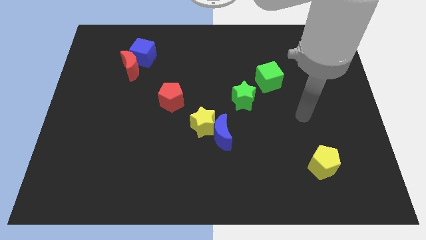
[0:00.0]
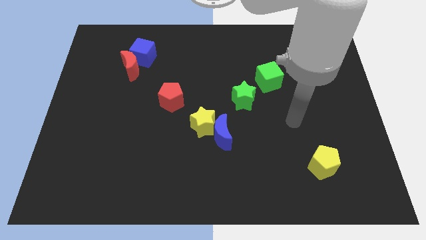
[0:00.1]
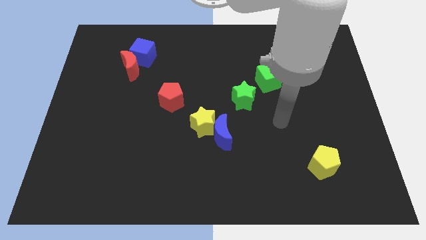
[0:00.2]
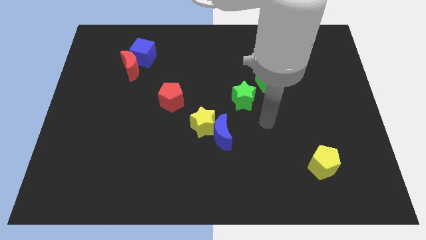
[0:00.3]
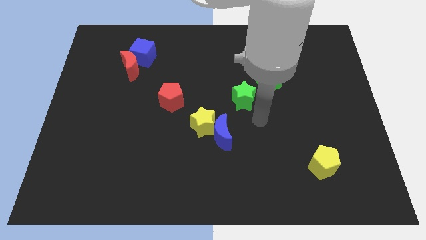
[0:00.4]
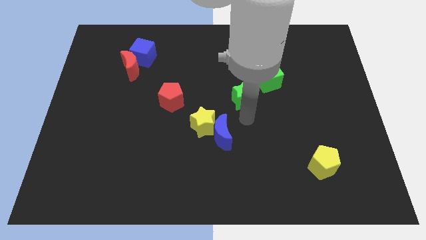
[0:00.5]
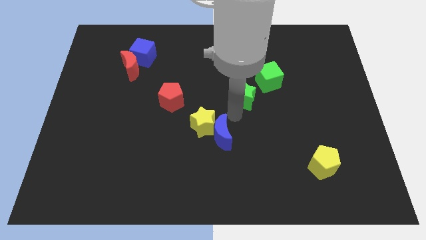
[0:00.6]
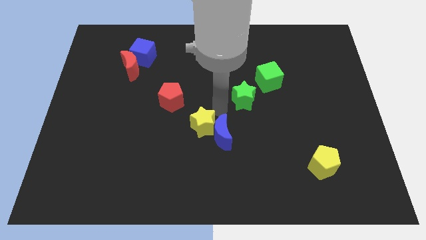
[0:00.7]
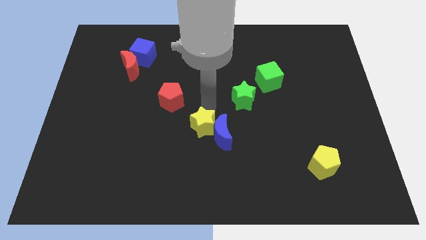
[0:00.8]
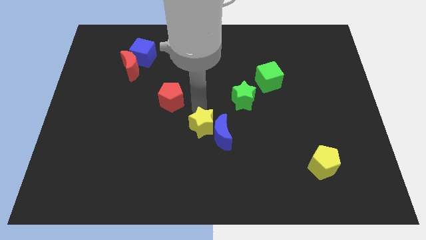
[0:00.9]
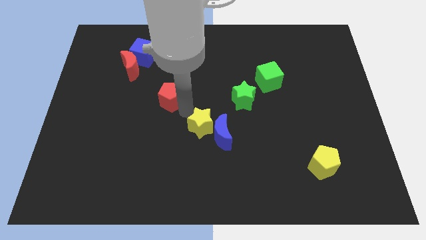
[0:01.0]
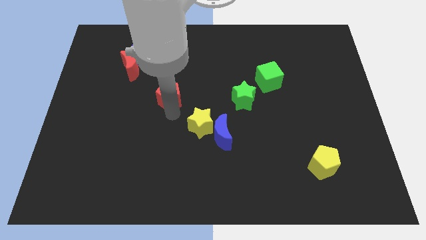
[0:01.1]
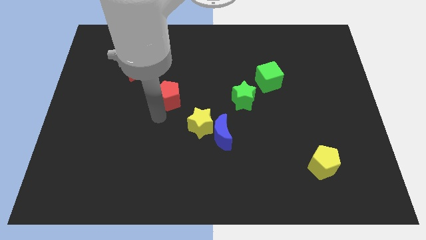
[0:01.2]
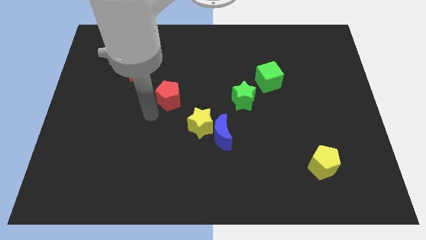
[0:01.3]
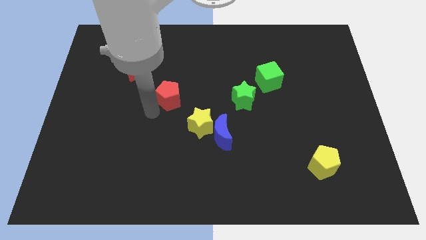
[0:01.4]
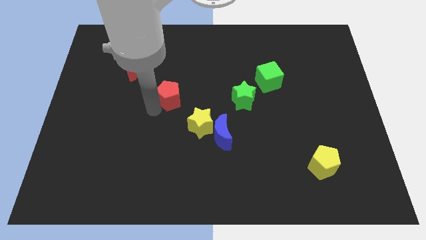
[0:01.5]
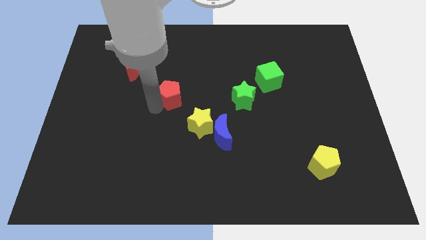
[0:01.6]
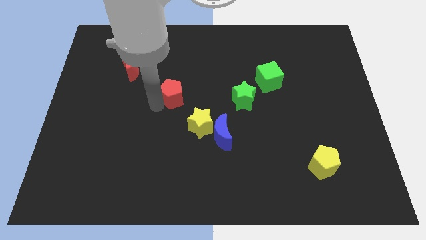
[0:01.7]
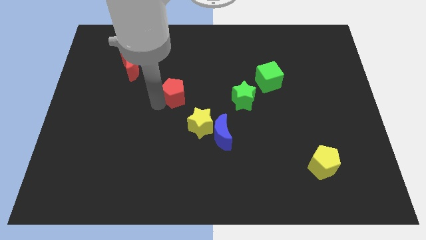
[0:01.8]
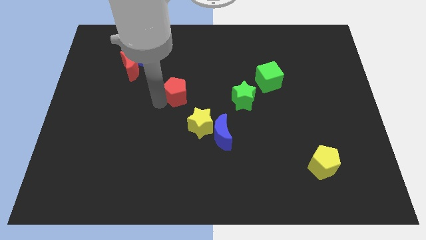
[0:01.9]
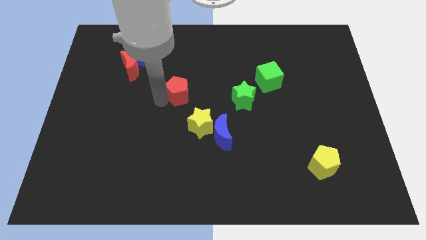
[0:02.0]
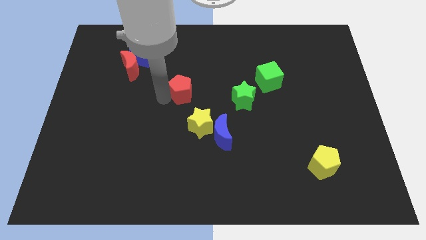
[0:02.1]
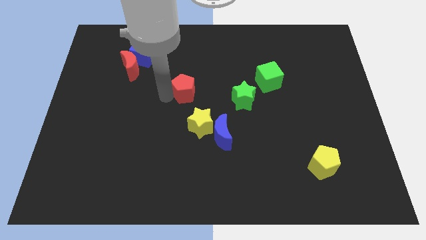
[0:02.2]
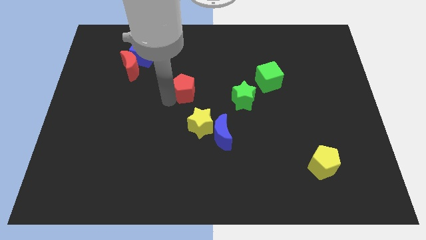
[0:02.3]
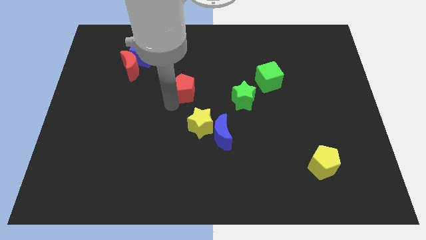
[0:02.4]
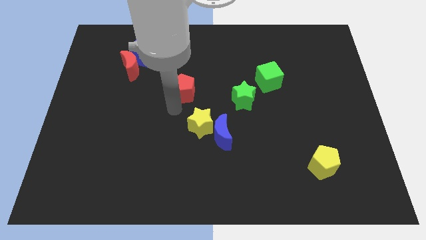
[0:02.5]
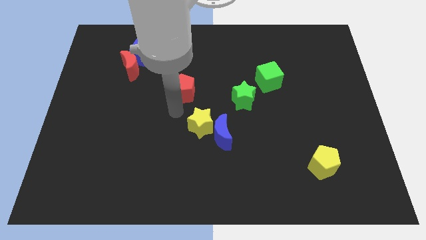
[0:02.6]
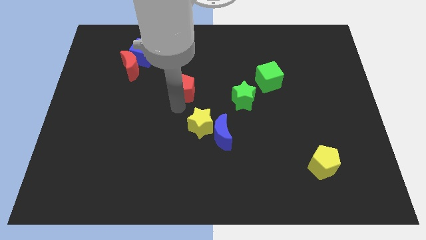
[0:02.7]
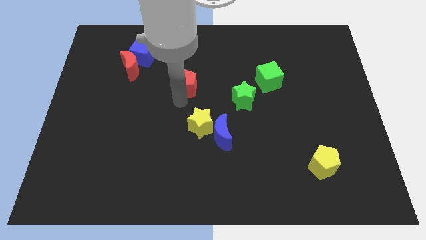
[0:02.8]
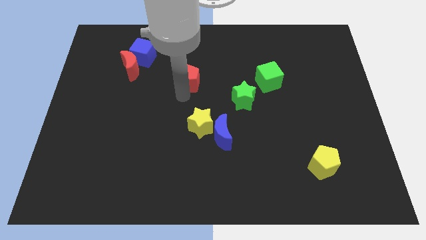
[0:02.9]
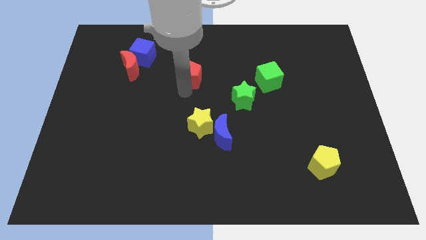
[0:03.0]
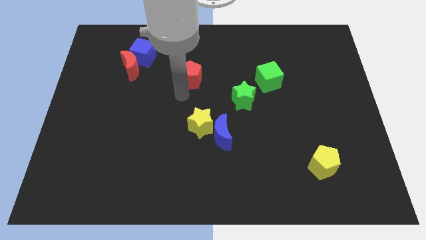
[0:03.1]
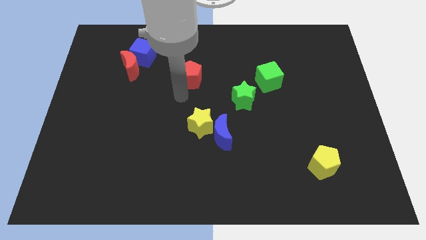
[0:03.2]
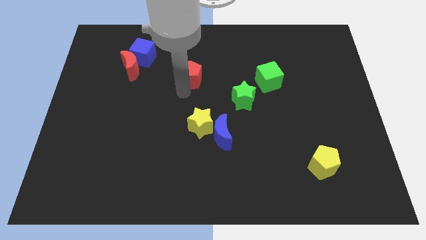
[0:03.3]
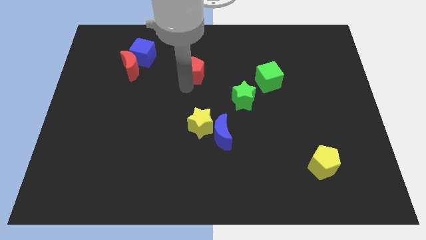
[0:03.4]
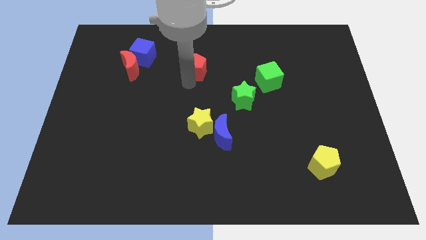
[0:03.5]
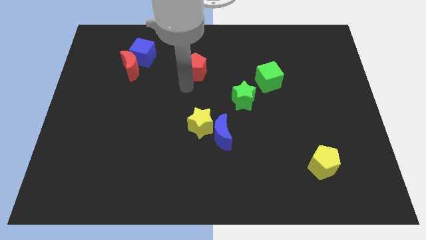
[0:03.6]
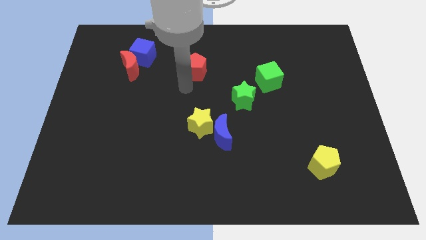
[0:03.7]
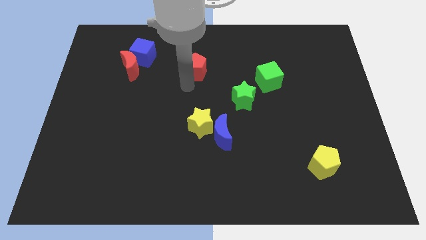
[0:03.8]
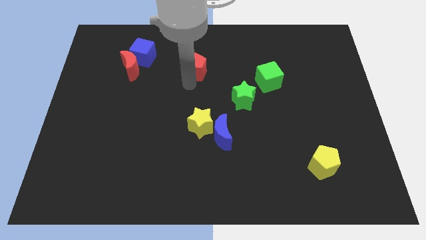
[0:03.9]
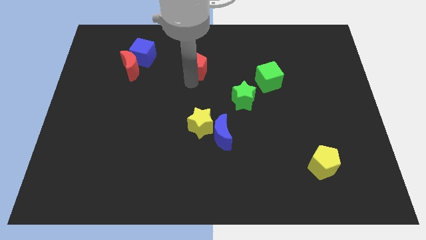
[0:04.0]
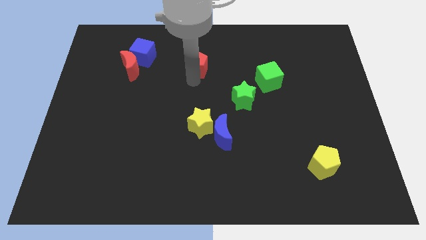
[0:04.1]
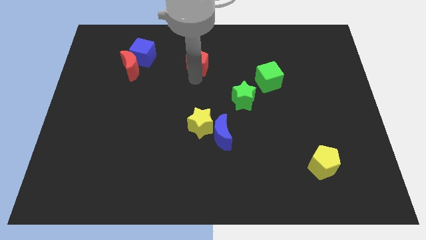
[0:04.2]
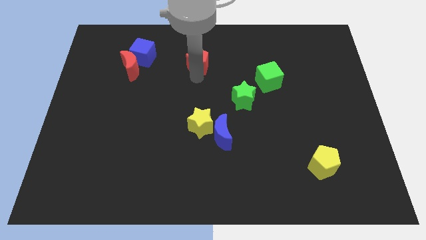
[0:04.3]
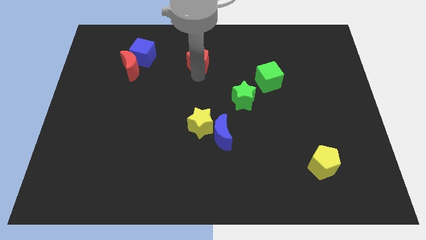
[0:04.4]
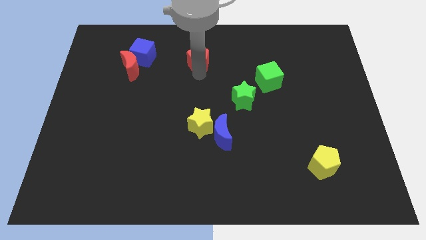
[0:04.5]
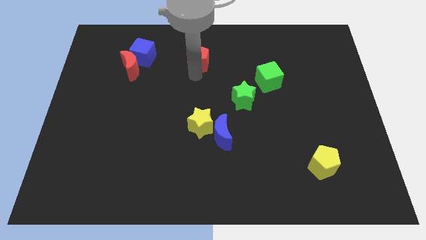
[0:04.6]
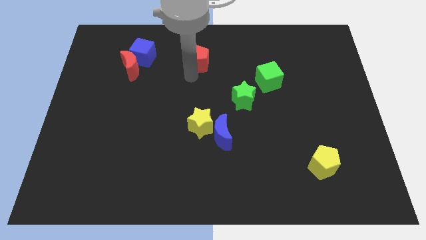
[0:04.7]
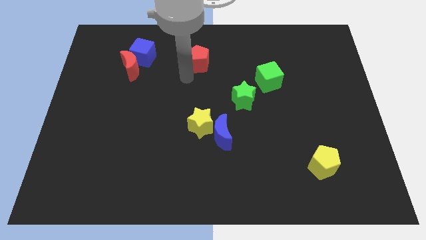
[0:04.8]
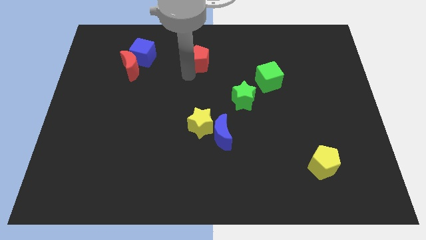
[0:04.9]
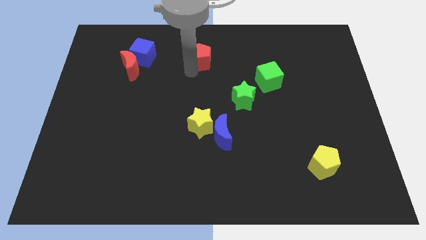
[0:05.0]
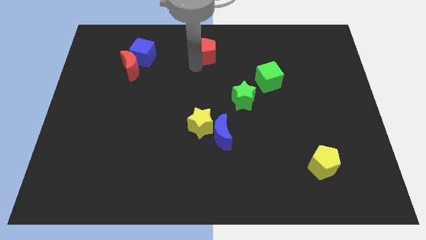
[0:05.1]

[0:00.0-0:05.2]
push the red pentagon to the top side

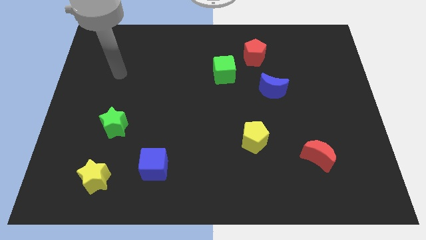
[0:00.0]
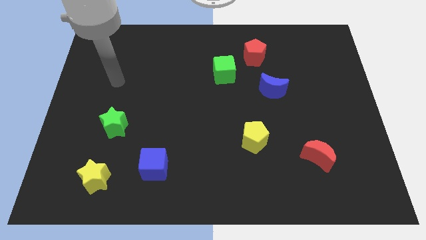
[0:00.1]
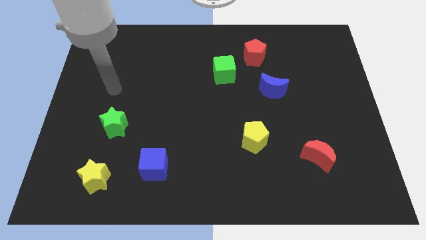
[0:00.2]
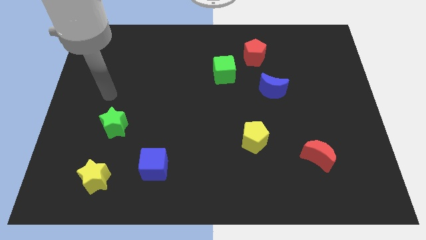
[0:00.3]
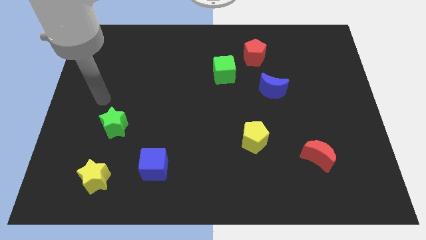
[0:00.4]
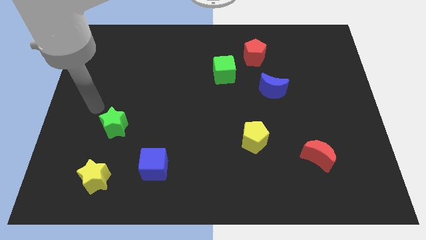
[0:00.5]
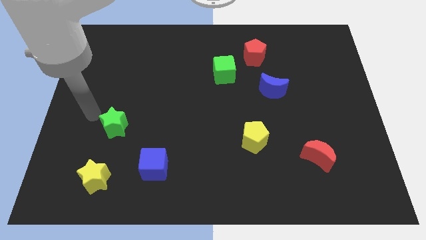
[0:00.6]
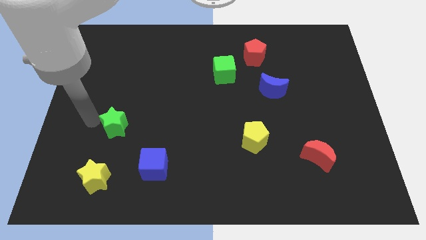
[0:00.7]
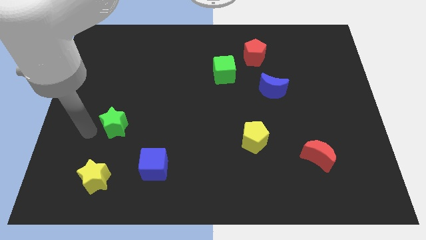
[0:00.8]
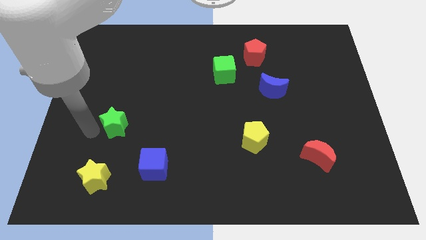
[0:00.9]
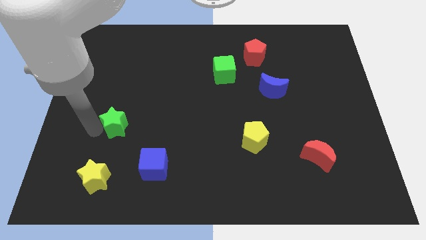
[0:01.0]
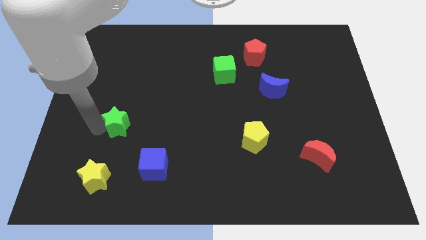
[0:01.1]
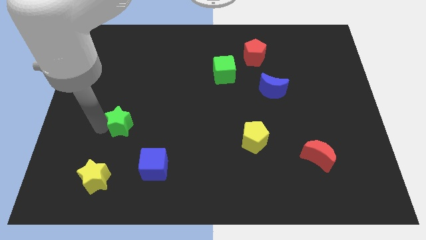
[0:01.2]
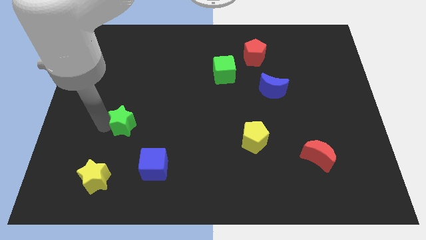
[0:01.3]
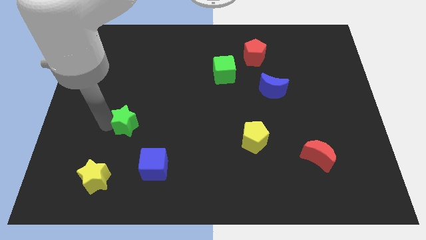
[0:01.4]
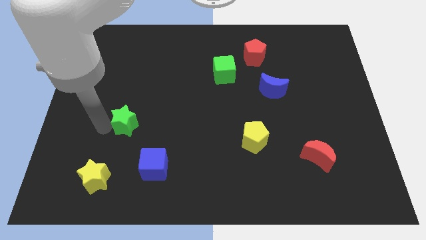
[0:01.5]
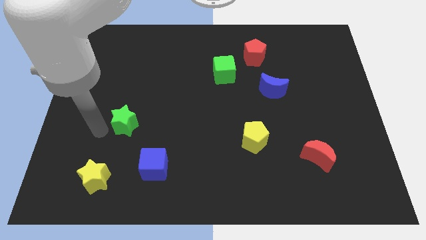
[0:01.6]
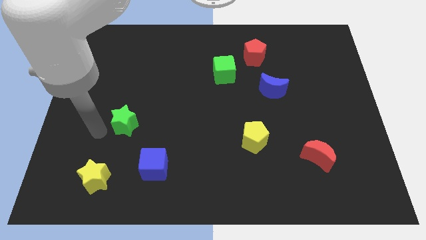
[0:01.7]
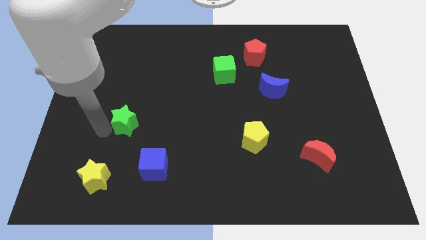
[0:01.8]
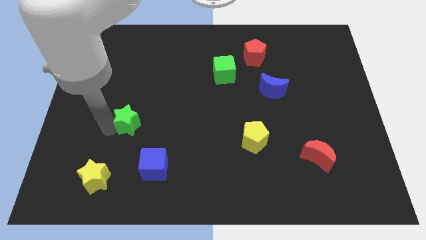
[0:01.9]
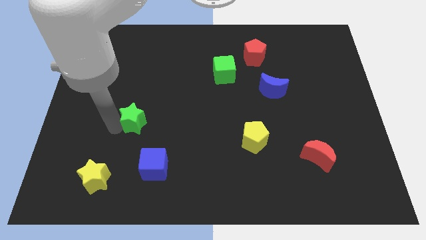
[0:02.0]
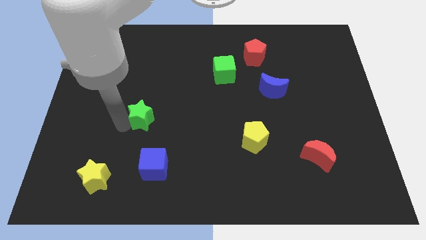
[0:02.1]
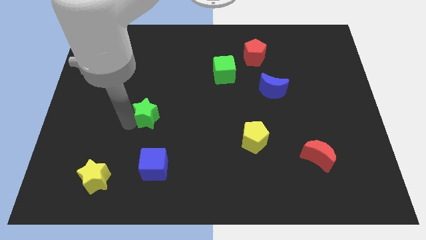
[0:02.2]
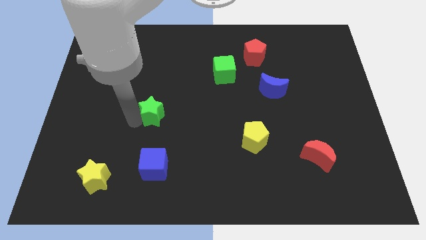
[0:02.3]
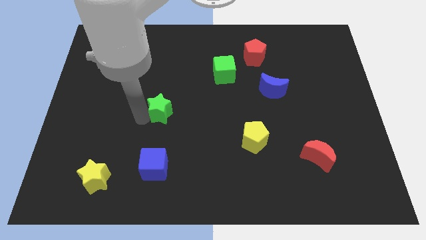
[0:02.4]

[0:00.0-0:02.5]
move the green star to the center of the board
